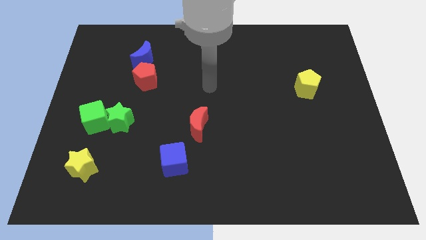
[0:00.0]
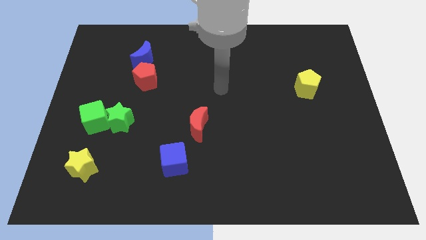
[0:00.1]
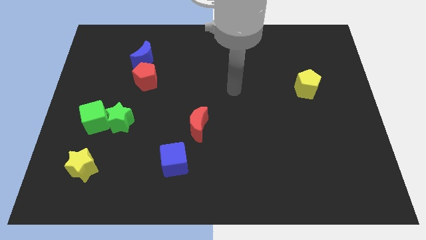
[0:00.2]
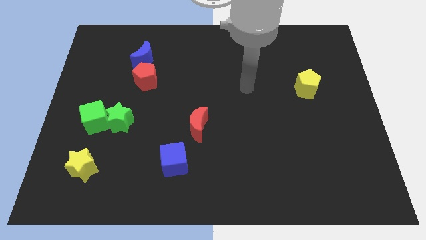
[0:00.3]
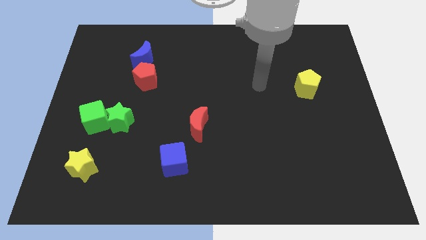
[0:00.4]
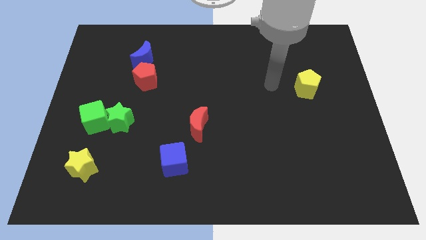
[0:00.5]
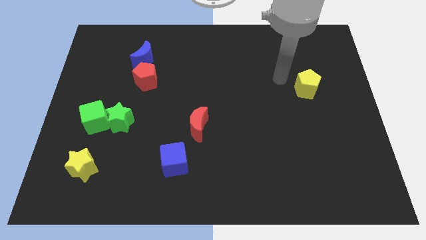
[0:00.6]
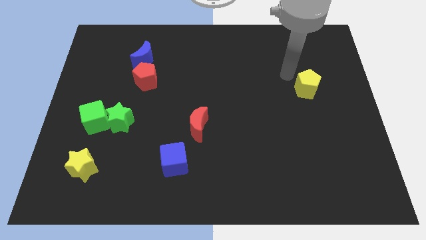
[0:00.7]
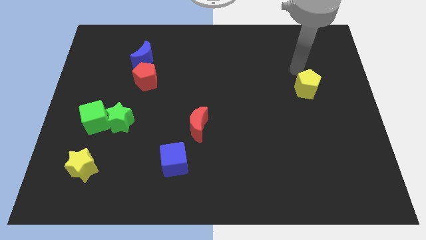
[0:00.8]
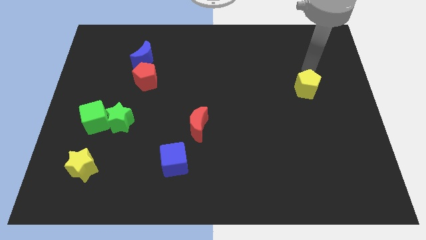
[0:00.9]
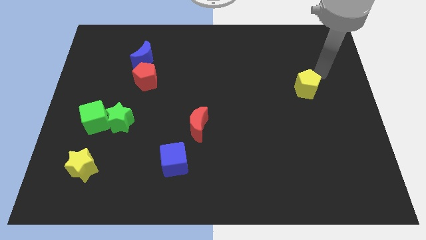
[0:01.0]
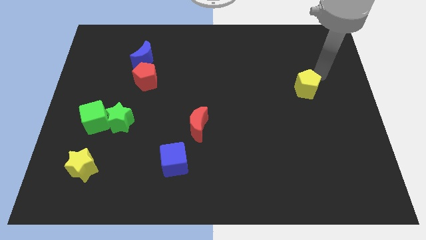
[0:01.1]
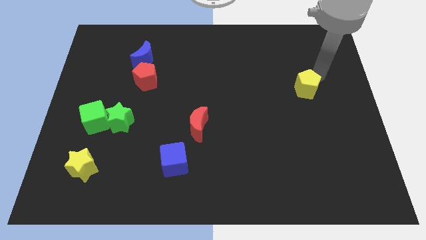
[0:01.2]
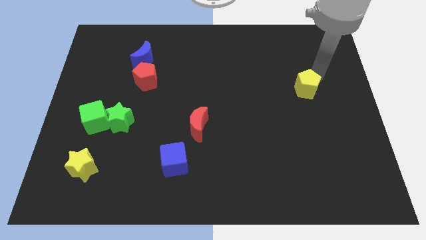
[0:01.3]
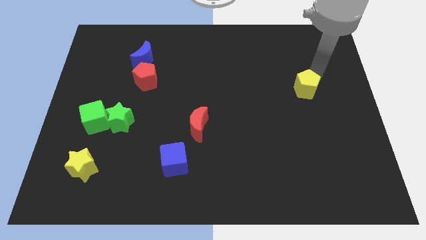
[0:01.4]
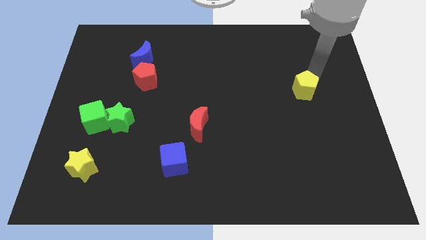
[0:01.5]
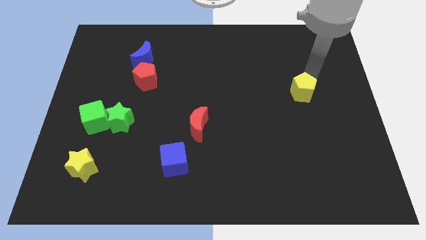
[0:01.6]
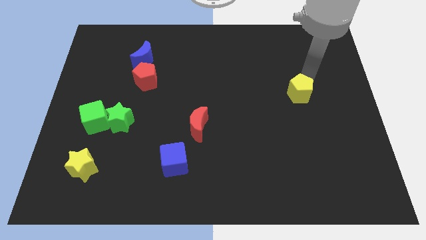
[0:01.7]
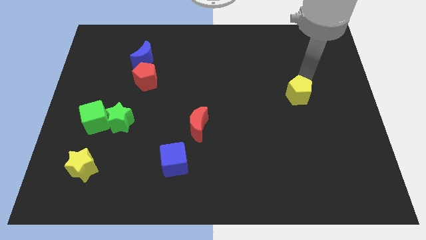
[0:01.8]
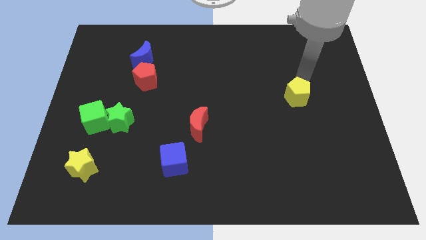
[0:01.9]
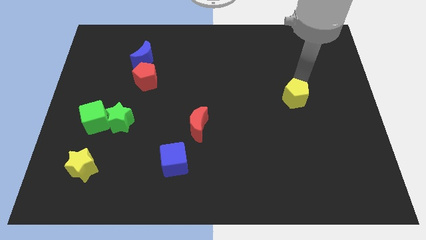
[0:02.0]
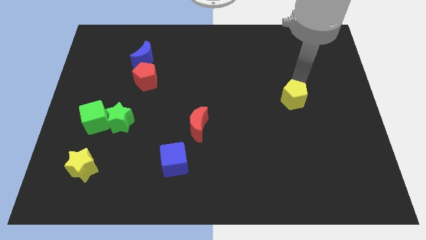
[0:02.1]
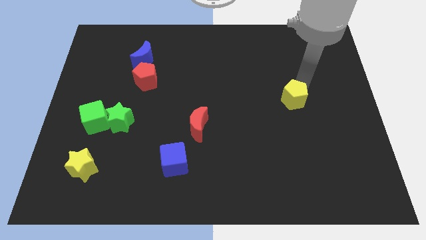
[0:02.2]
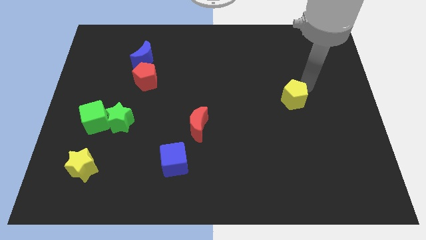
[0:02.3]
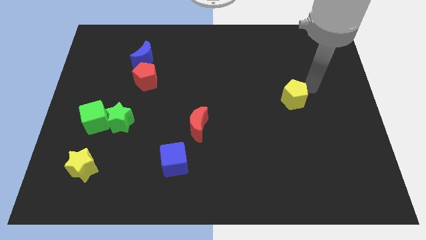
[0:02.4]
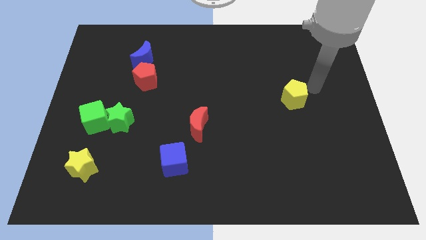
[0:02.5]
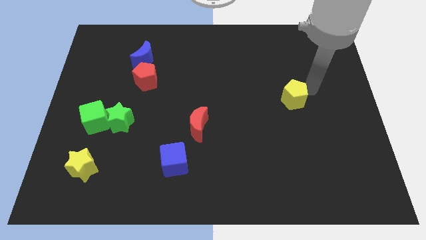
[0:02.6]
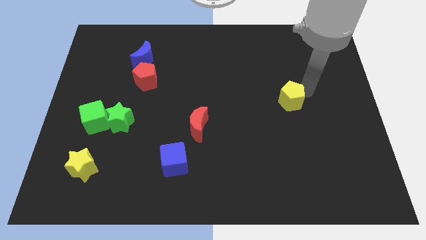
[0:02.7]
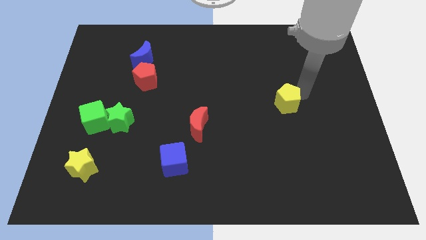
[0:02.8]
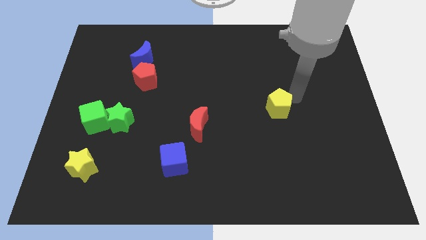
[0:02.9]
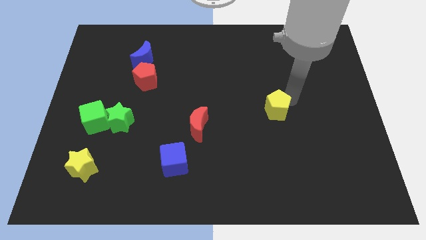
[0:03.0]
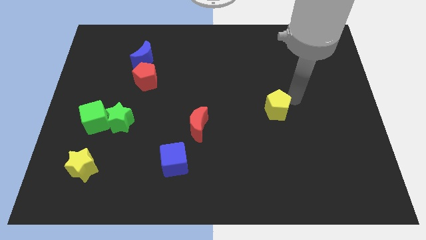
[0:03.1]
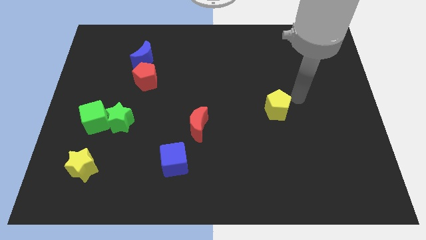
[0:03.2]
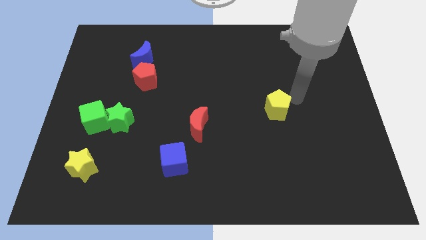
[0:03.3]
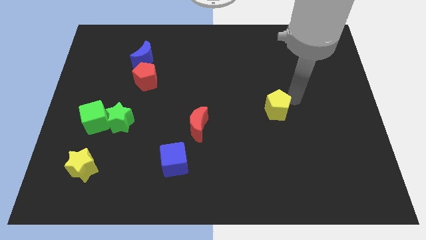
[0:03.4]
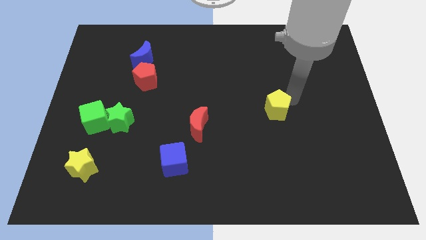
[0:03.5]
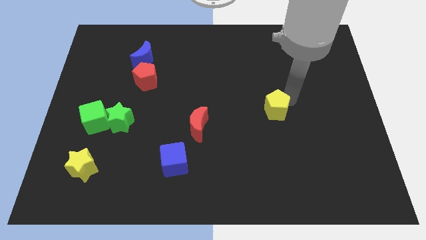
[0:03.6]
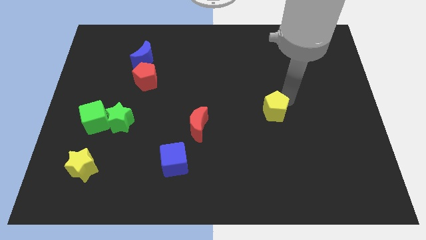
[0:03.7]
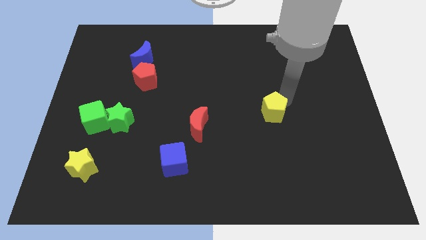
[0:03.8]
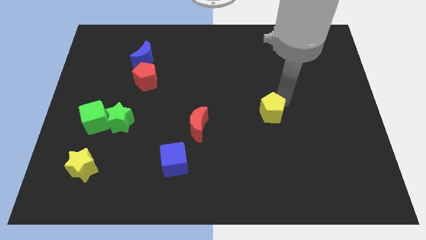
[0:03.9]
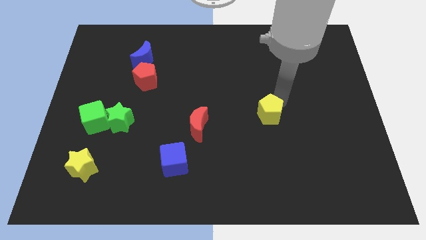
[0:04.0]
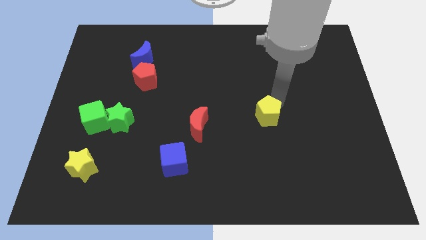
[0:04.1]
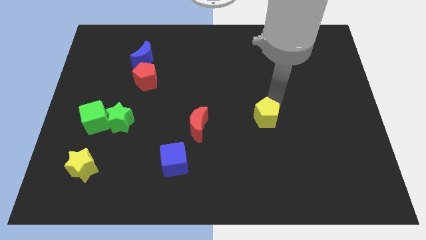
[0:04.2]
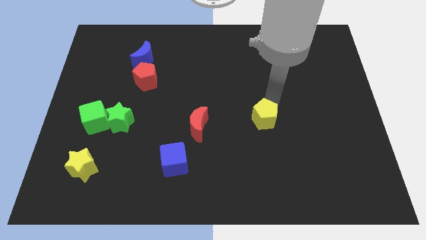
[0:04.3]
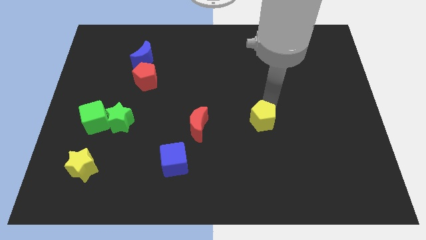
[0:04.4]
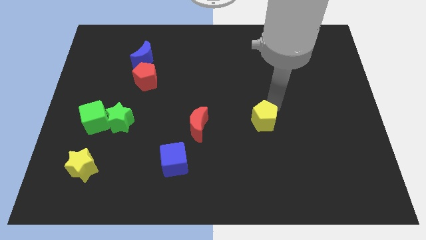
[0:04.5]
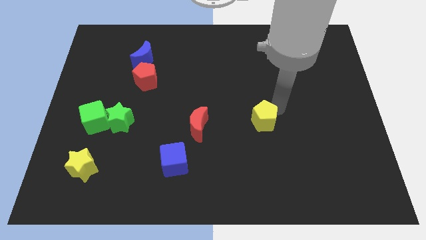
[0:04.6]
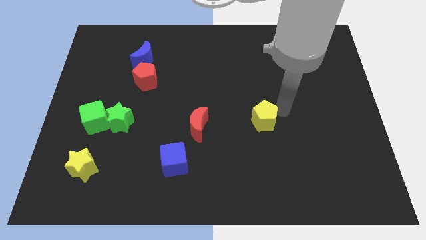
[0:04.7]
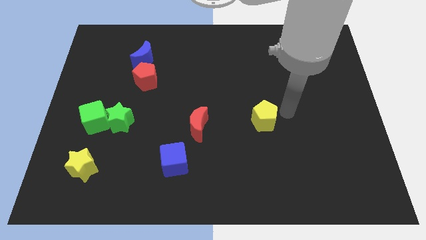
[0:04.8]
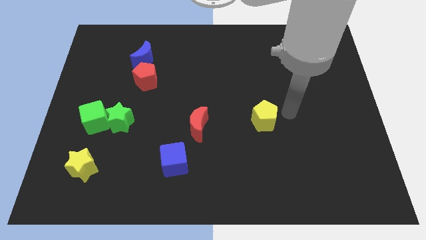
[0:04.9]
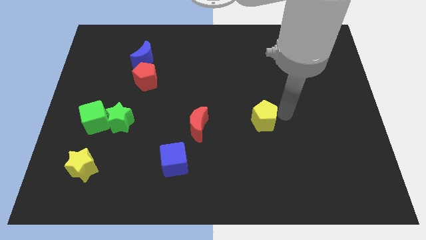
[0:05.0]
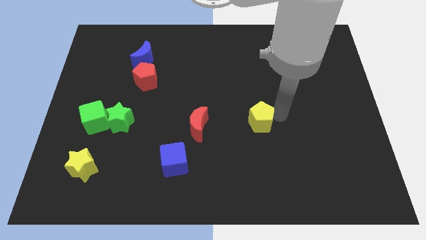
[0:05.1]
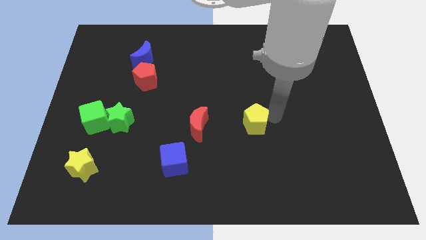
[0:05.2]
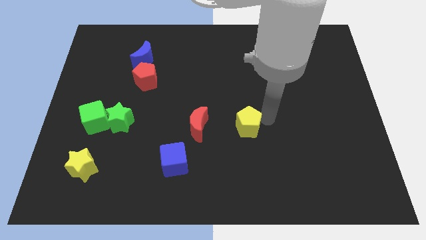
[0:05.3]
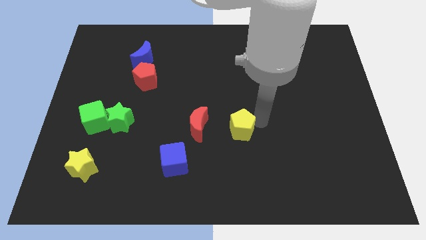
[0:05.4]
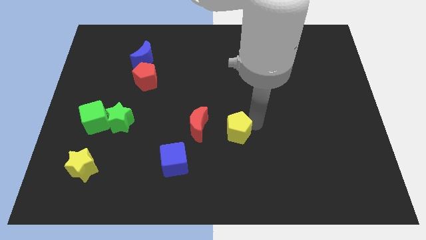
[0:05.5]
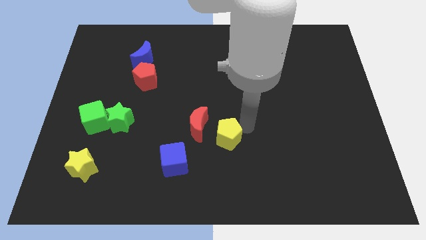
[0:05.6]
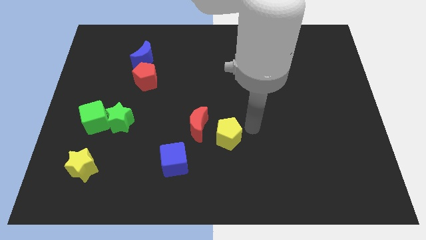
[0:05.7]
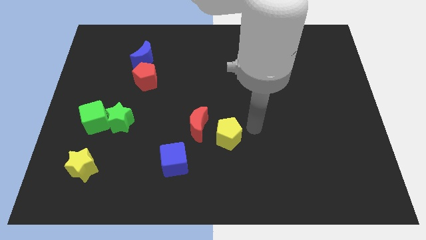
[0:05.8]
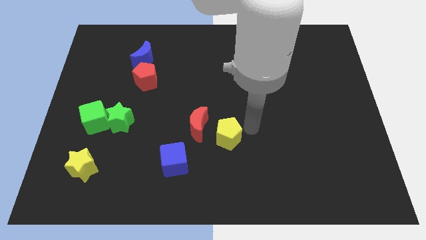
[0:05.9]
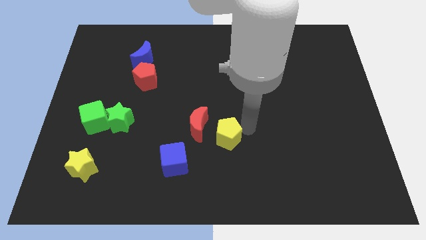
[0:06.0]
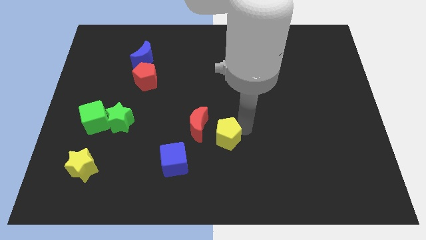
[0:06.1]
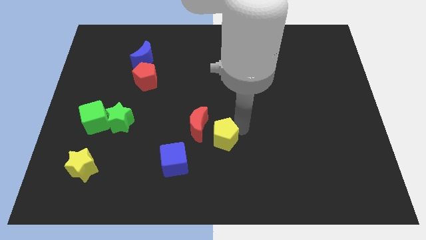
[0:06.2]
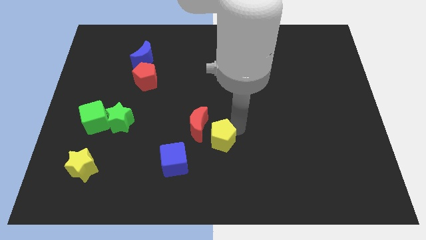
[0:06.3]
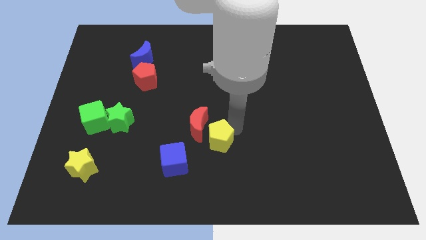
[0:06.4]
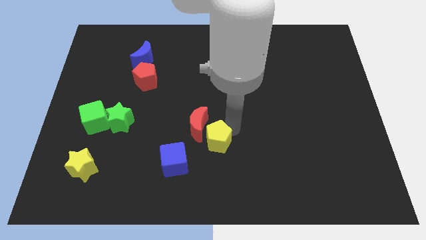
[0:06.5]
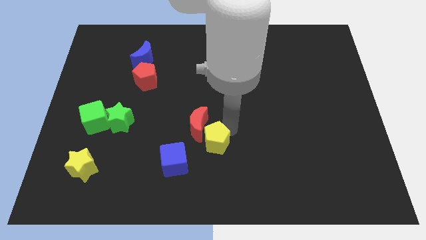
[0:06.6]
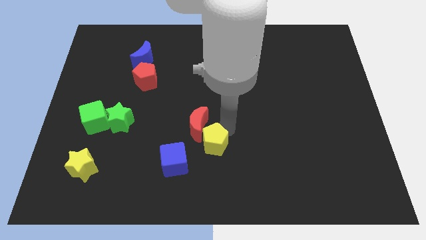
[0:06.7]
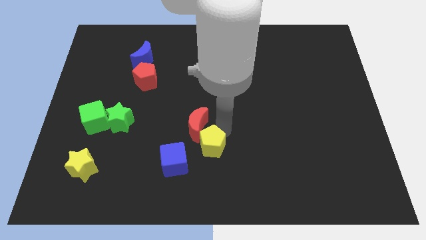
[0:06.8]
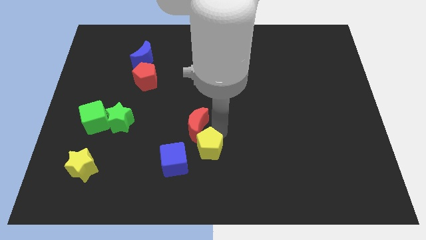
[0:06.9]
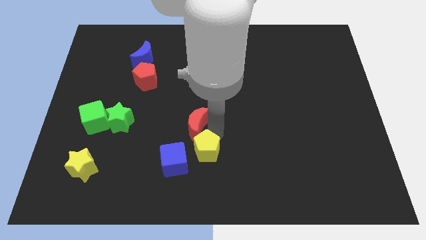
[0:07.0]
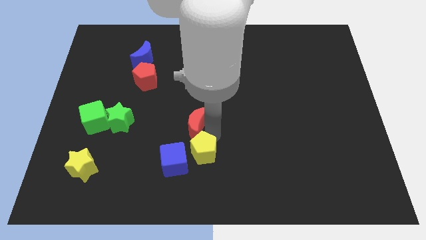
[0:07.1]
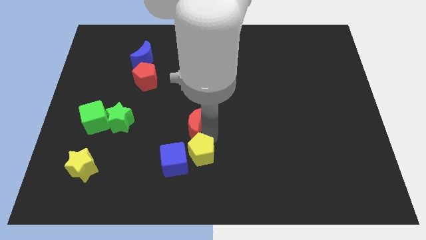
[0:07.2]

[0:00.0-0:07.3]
slide the yellow pentagon to the blue cube

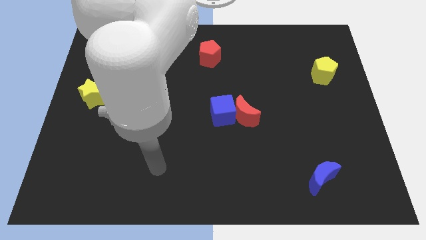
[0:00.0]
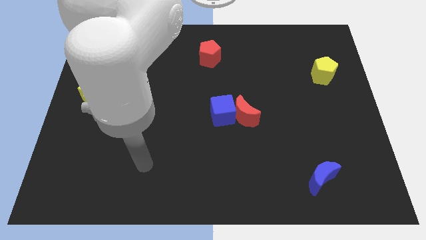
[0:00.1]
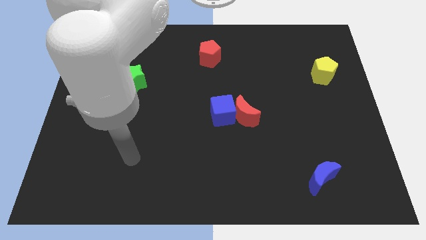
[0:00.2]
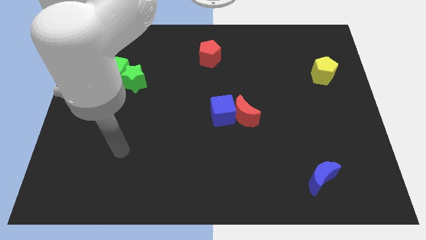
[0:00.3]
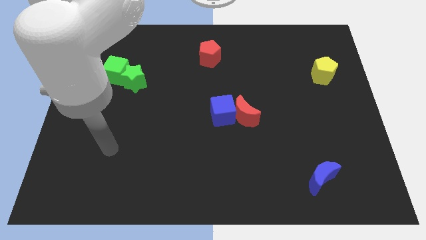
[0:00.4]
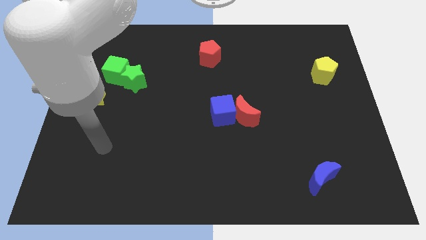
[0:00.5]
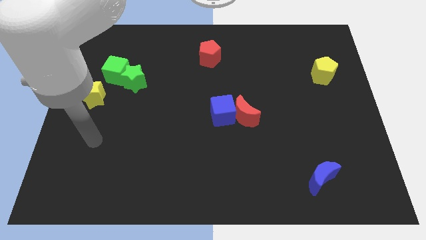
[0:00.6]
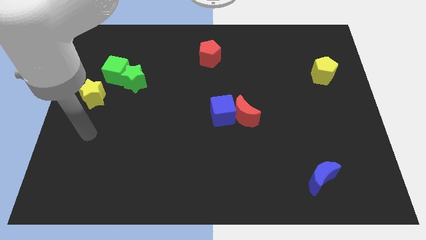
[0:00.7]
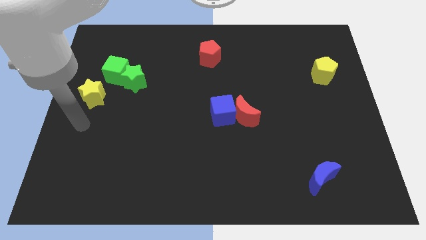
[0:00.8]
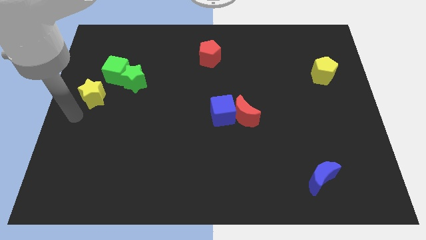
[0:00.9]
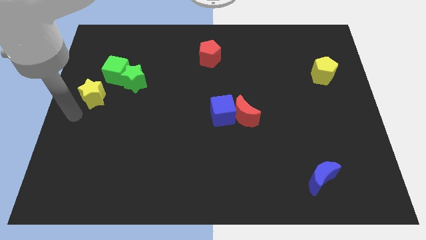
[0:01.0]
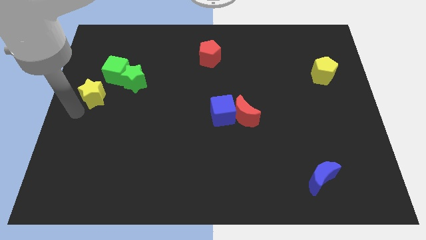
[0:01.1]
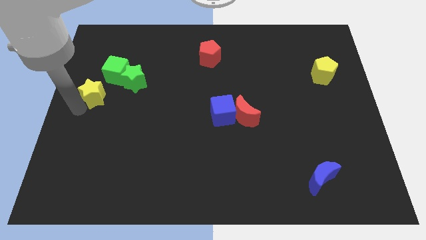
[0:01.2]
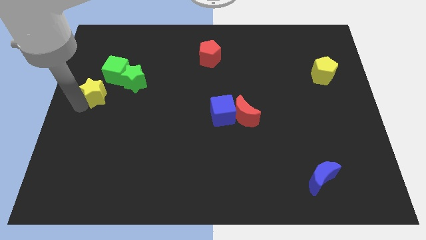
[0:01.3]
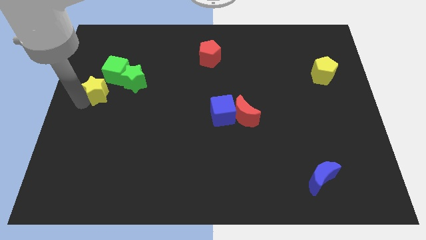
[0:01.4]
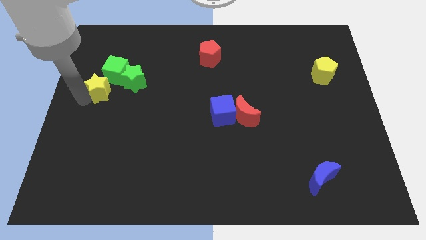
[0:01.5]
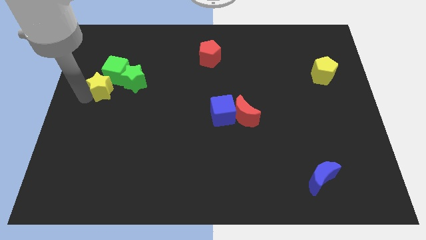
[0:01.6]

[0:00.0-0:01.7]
slide the yellow star towards the green cube
